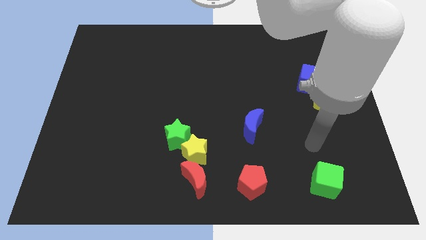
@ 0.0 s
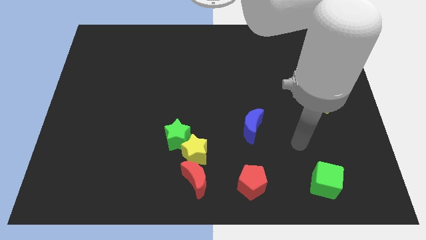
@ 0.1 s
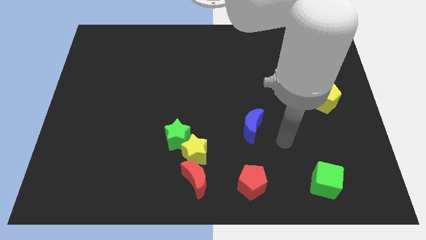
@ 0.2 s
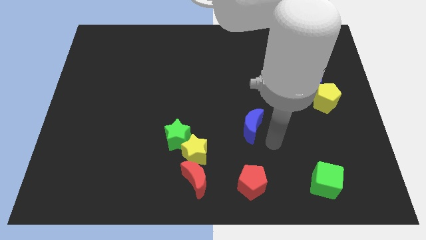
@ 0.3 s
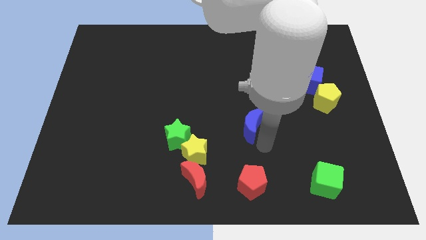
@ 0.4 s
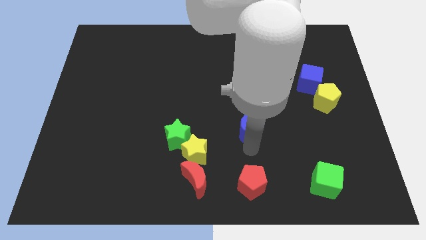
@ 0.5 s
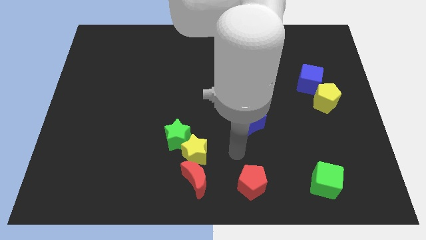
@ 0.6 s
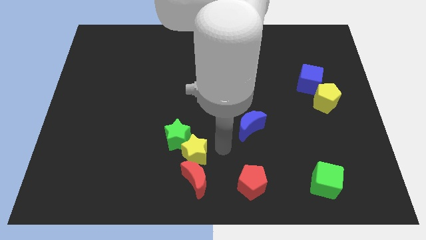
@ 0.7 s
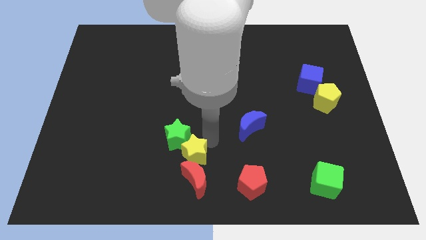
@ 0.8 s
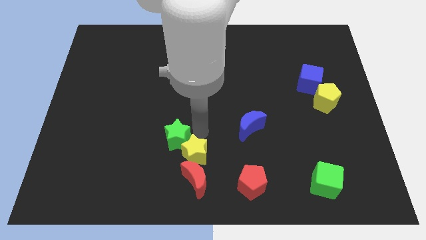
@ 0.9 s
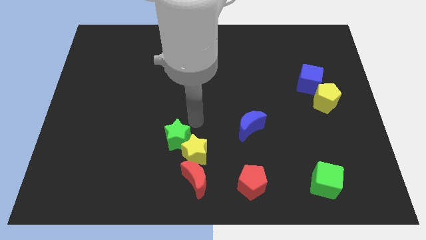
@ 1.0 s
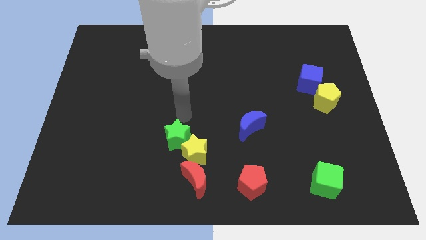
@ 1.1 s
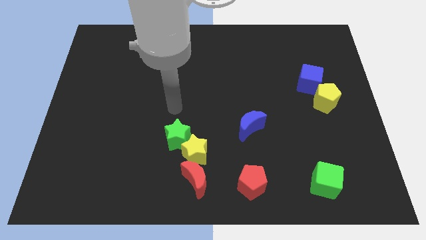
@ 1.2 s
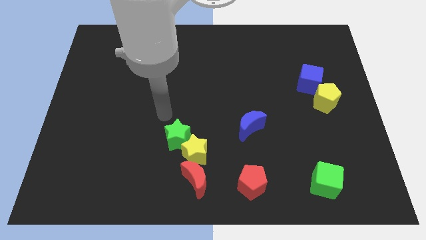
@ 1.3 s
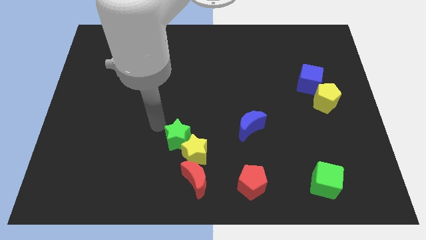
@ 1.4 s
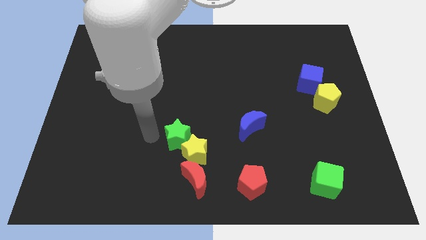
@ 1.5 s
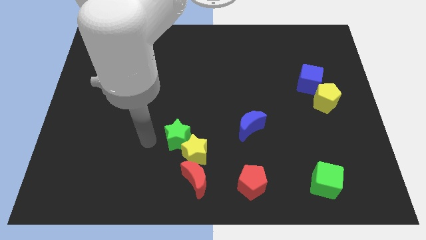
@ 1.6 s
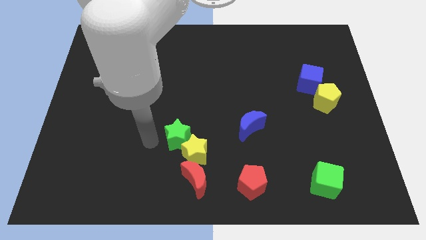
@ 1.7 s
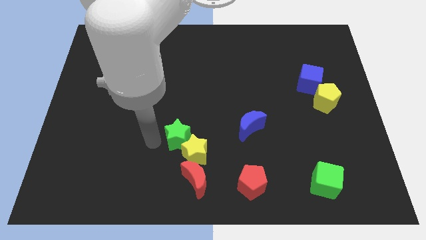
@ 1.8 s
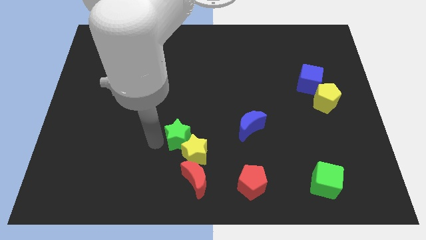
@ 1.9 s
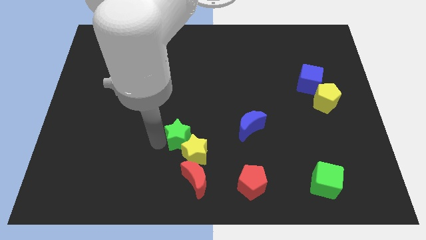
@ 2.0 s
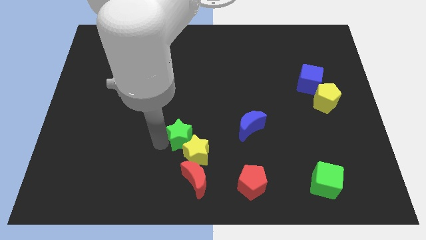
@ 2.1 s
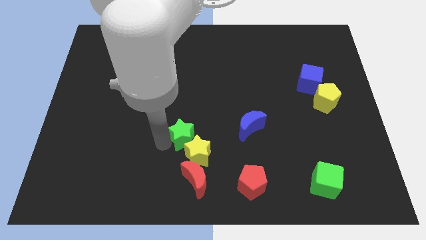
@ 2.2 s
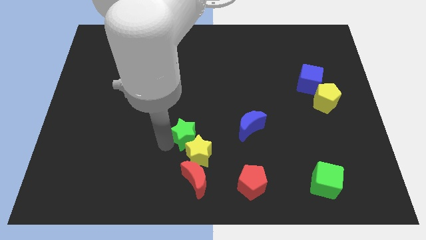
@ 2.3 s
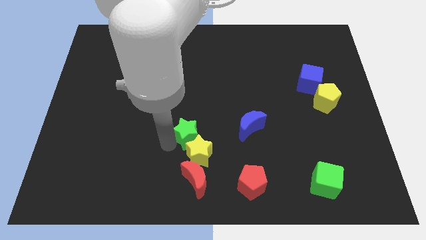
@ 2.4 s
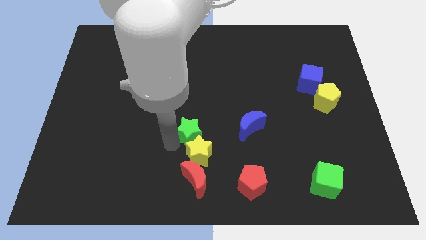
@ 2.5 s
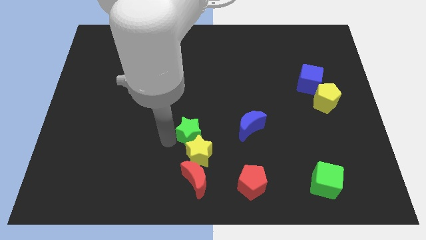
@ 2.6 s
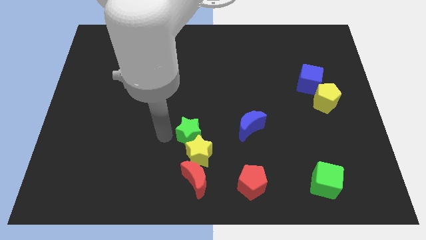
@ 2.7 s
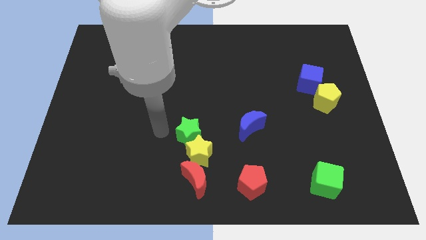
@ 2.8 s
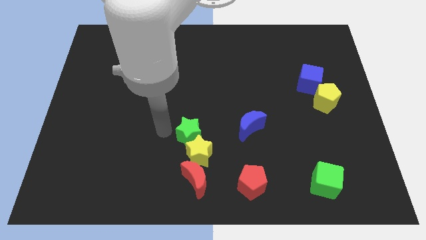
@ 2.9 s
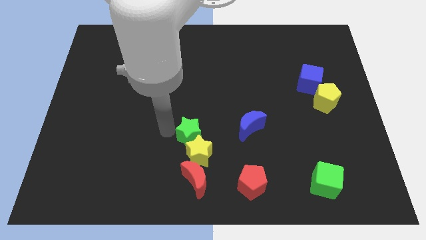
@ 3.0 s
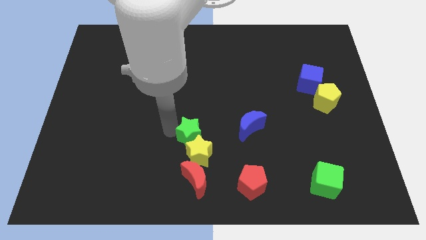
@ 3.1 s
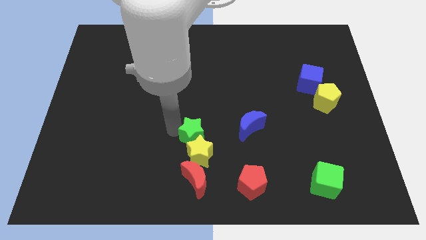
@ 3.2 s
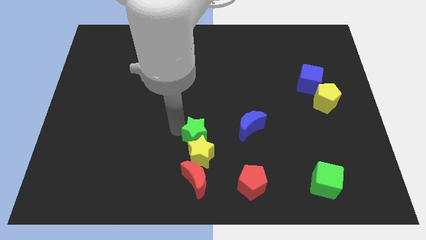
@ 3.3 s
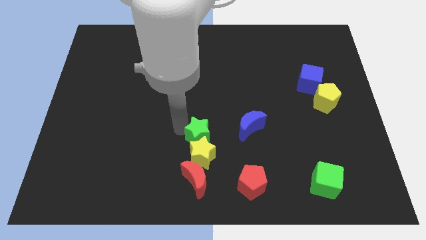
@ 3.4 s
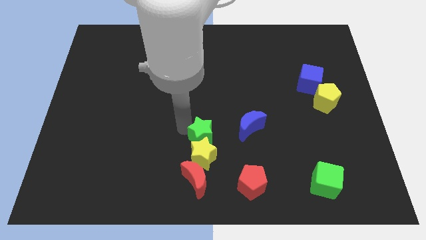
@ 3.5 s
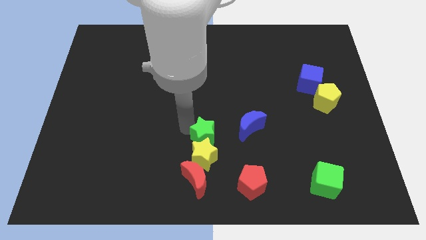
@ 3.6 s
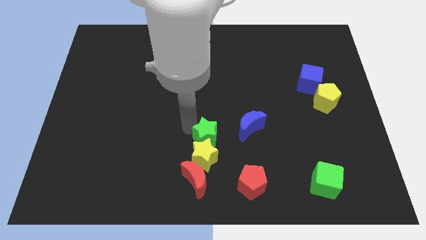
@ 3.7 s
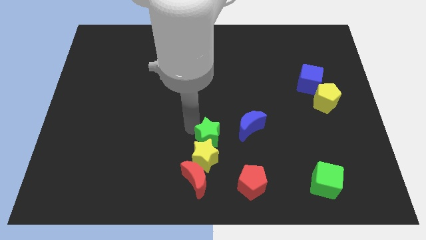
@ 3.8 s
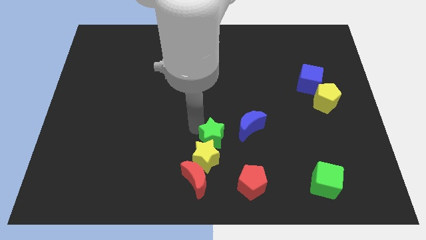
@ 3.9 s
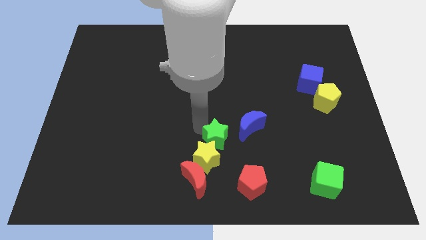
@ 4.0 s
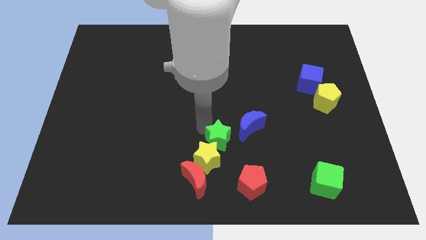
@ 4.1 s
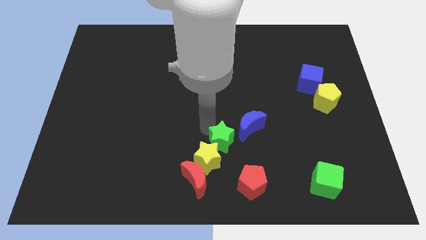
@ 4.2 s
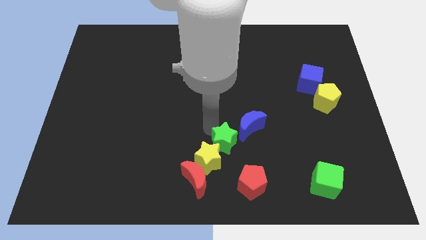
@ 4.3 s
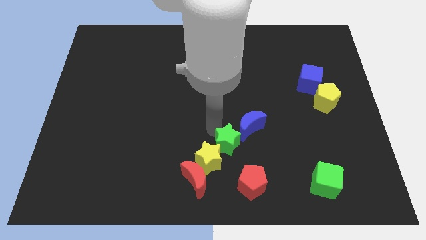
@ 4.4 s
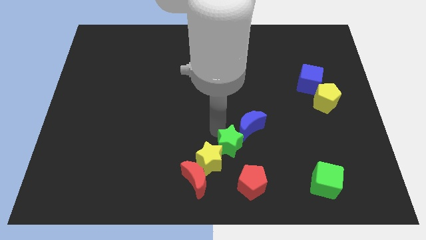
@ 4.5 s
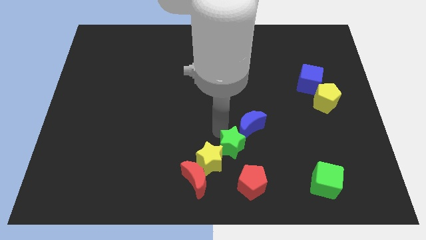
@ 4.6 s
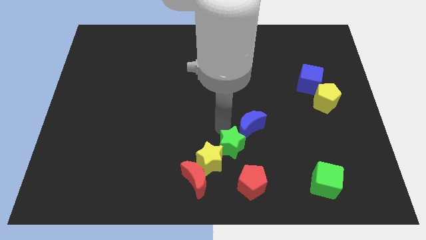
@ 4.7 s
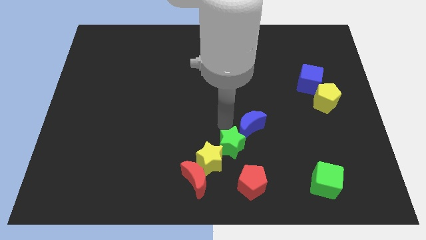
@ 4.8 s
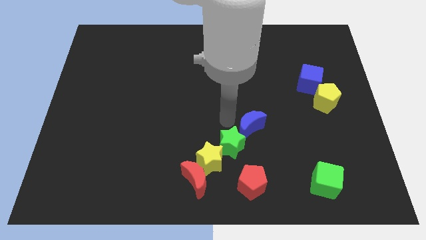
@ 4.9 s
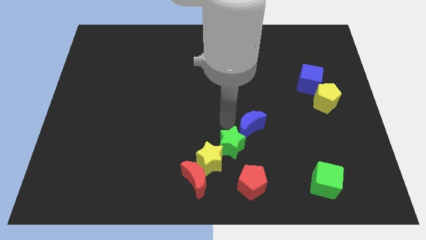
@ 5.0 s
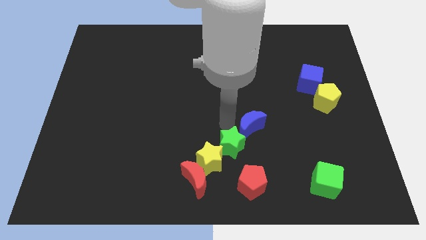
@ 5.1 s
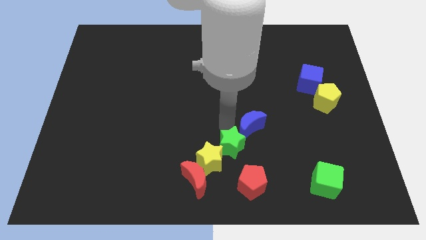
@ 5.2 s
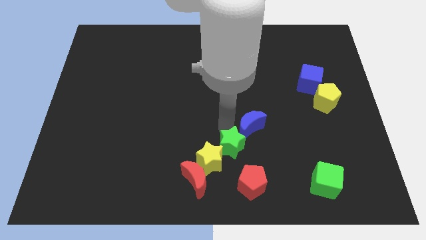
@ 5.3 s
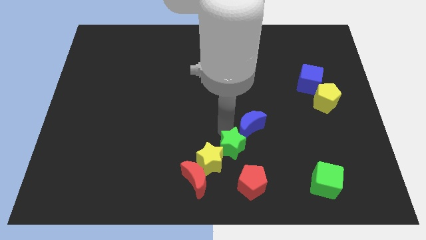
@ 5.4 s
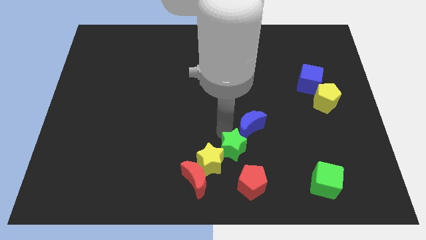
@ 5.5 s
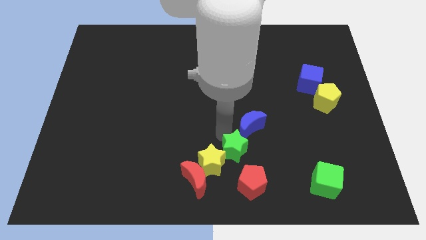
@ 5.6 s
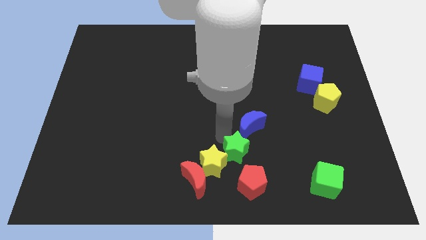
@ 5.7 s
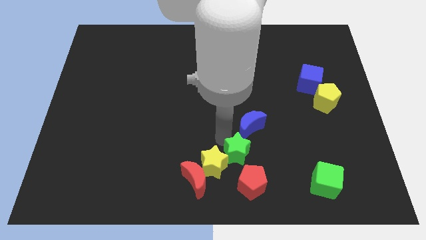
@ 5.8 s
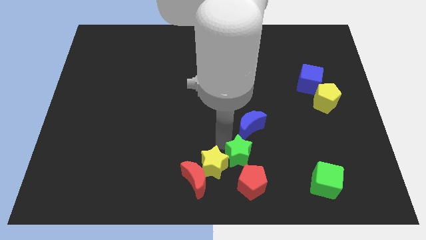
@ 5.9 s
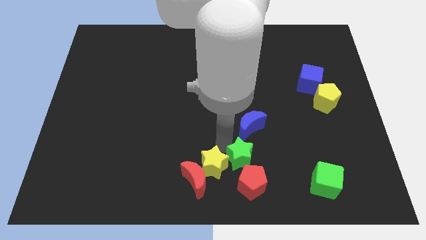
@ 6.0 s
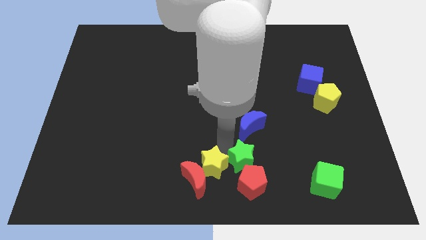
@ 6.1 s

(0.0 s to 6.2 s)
put the green star next to the red pentagon

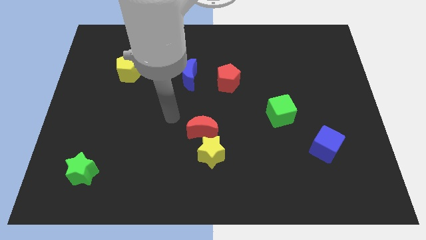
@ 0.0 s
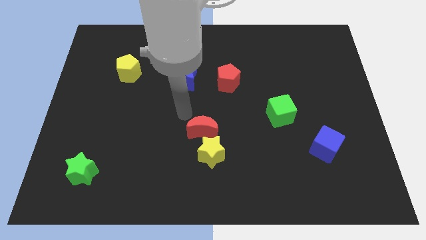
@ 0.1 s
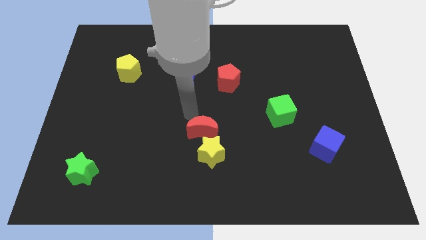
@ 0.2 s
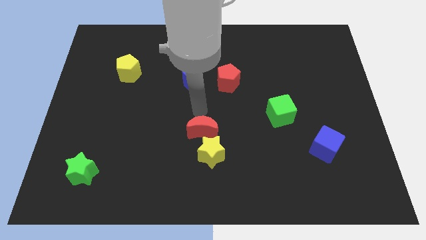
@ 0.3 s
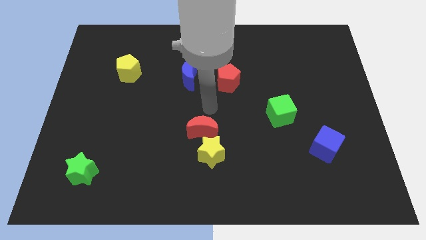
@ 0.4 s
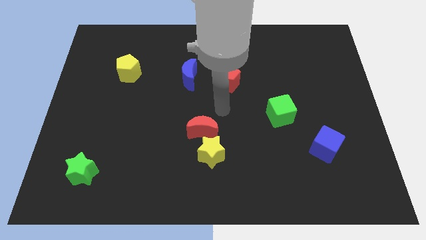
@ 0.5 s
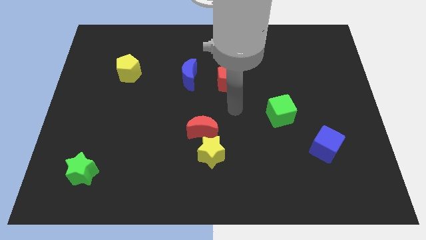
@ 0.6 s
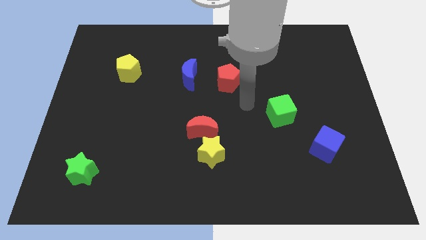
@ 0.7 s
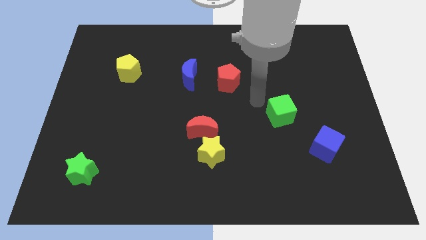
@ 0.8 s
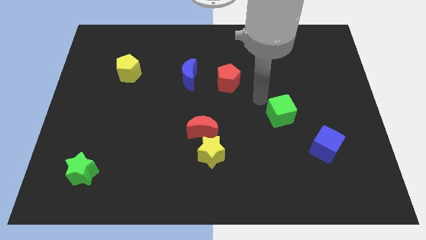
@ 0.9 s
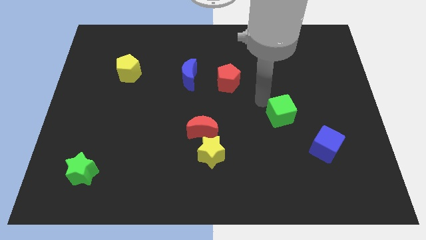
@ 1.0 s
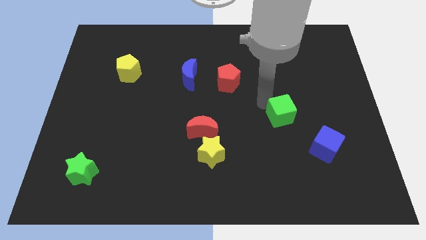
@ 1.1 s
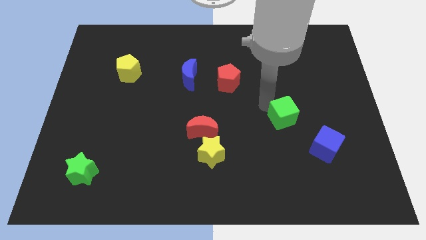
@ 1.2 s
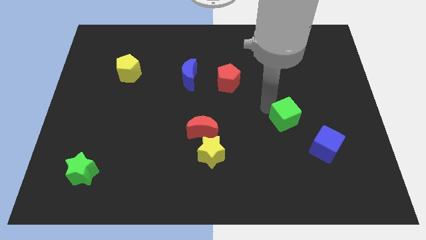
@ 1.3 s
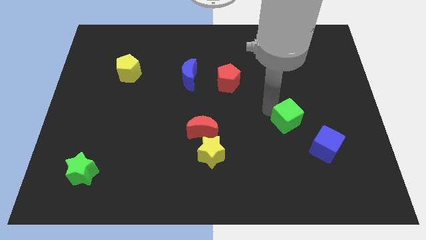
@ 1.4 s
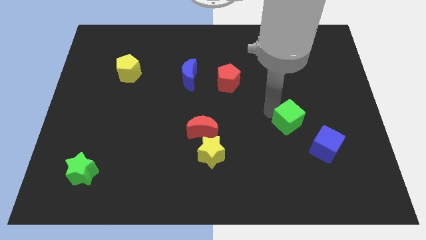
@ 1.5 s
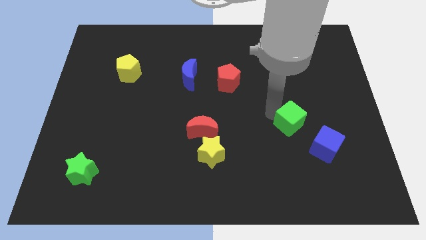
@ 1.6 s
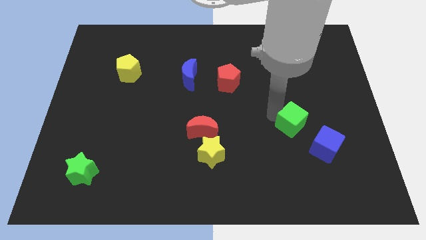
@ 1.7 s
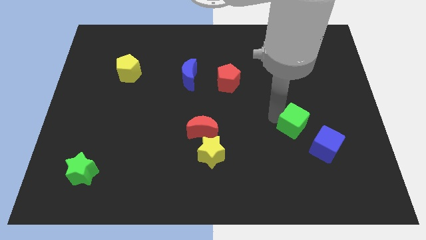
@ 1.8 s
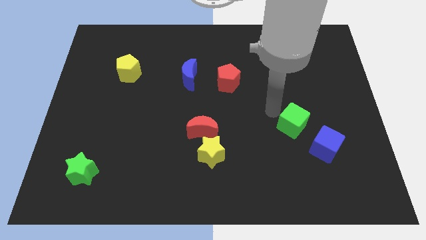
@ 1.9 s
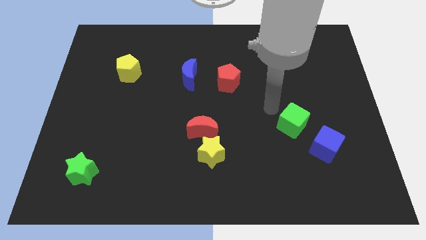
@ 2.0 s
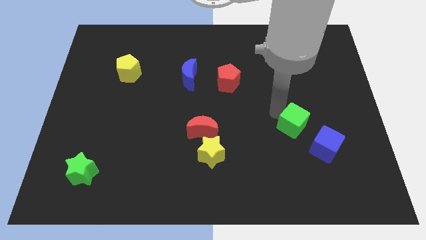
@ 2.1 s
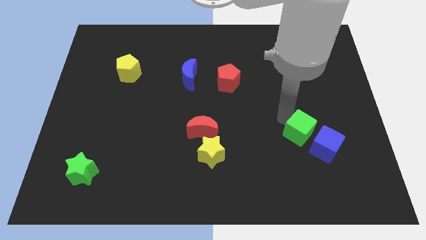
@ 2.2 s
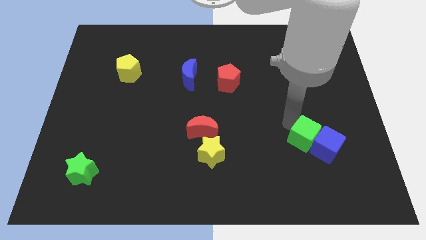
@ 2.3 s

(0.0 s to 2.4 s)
push the green cube to the blue cube
